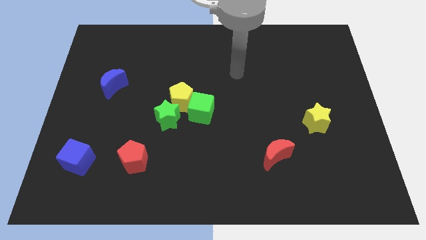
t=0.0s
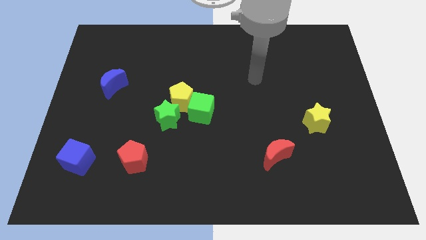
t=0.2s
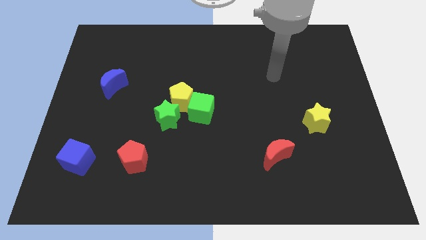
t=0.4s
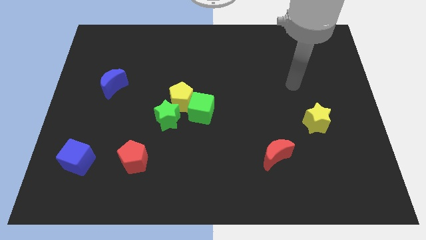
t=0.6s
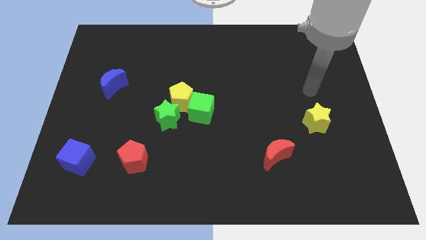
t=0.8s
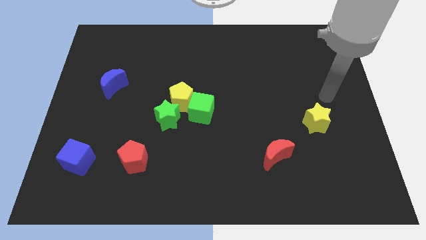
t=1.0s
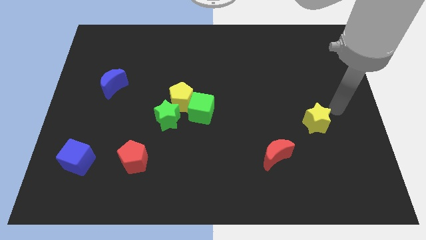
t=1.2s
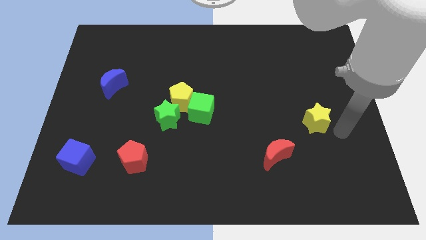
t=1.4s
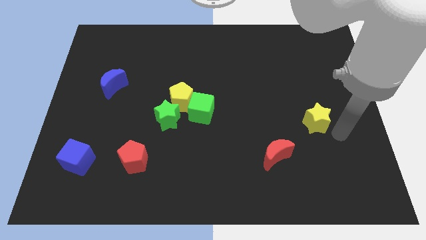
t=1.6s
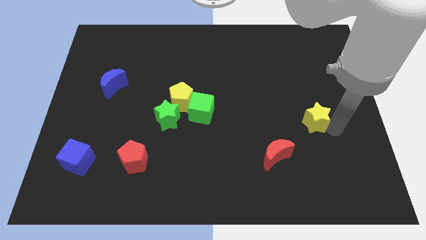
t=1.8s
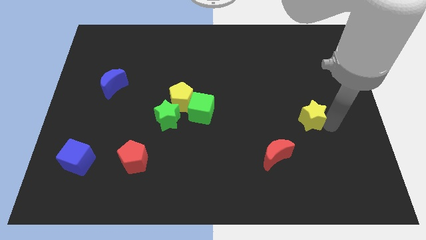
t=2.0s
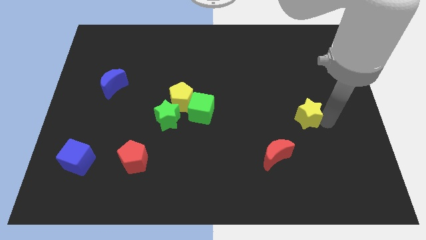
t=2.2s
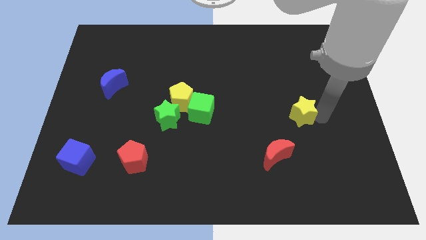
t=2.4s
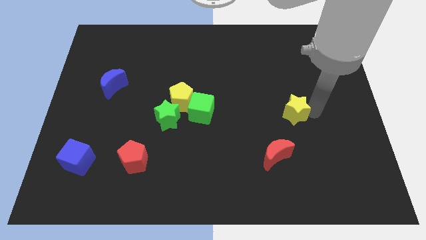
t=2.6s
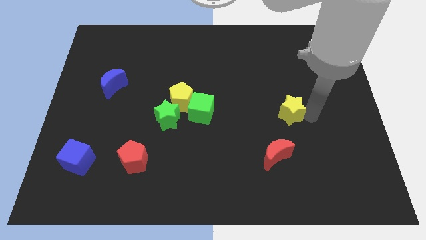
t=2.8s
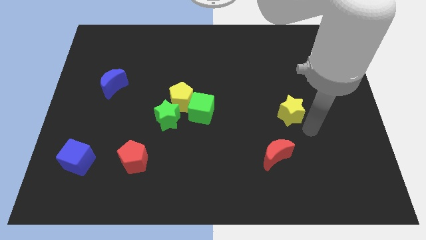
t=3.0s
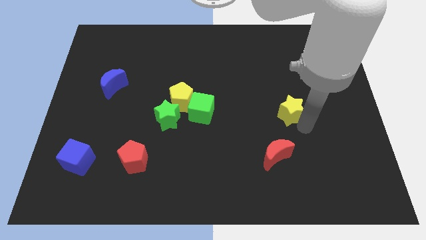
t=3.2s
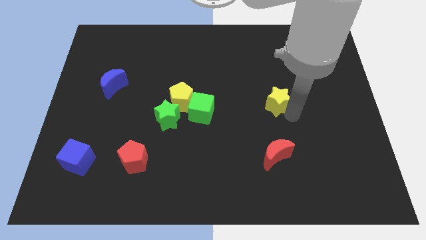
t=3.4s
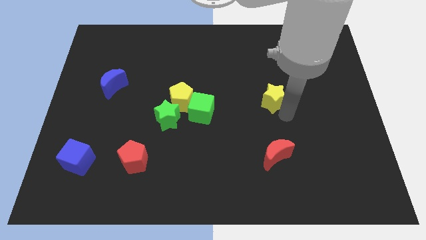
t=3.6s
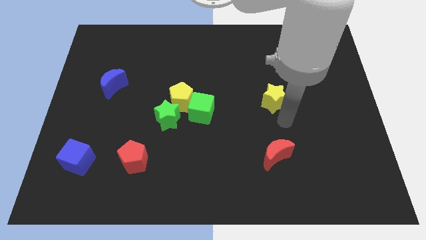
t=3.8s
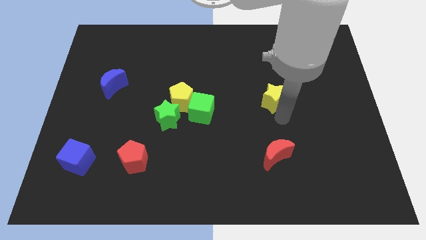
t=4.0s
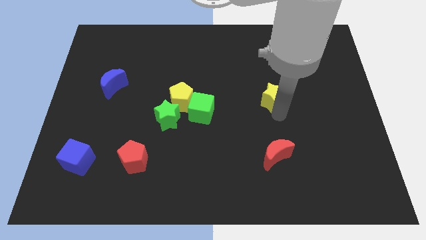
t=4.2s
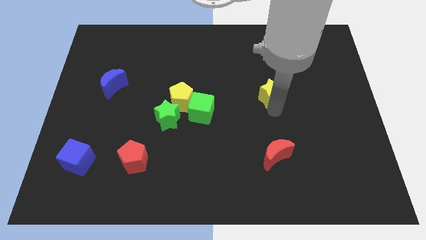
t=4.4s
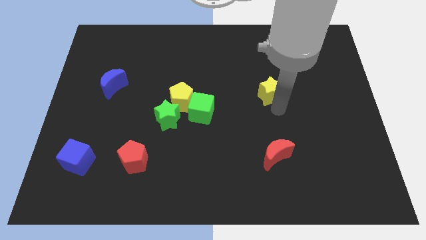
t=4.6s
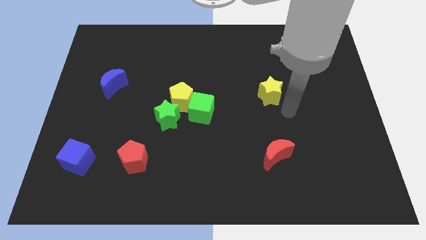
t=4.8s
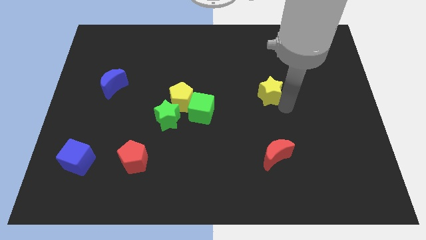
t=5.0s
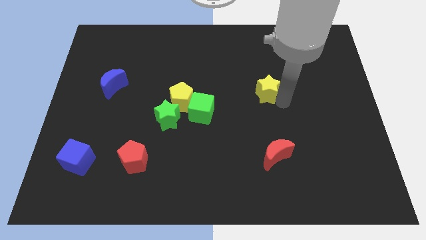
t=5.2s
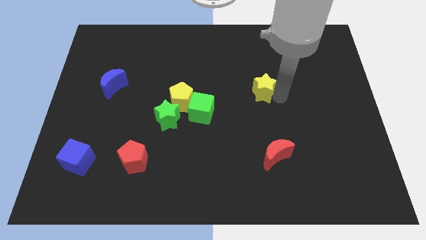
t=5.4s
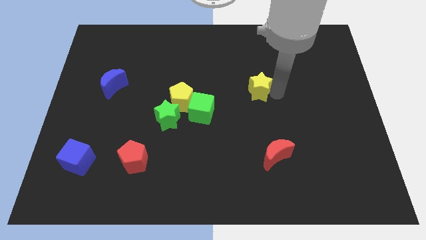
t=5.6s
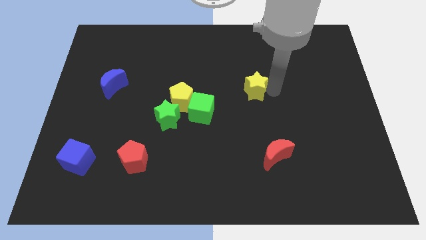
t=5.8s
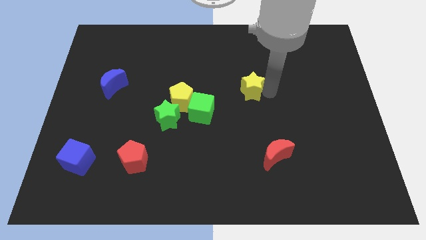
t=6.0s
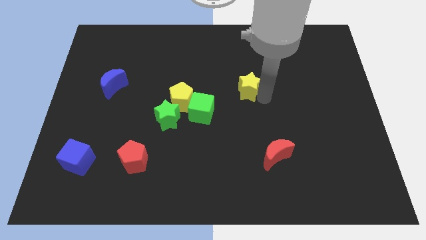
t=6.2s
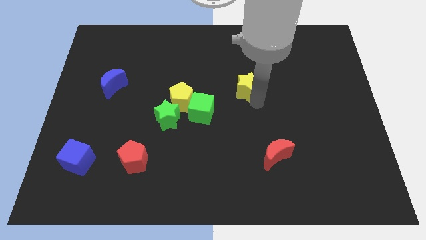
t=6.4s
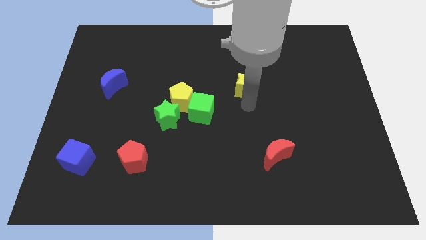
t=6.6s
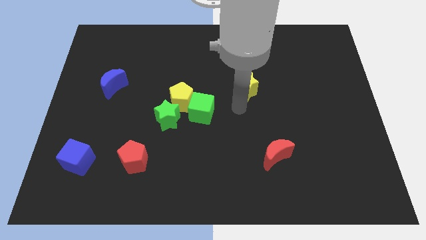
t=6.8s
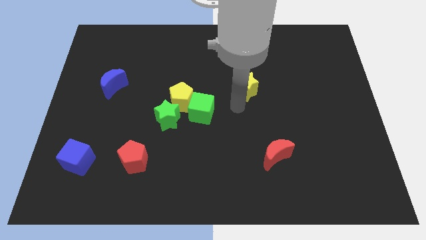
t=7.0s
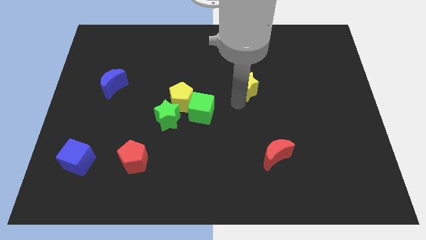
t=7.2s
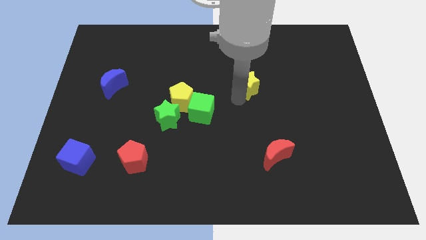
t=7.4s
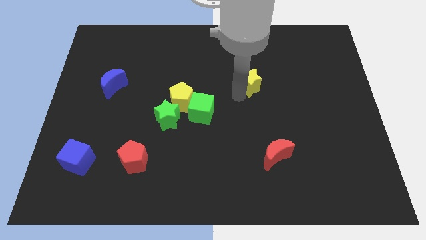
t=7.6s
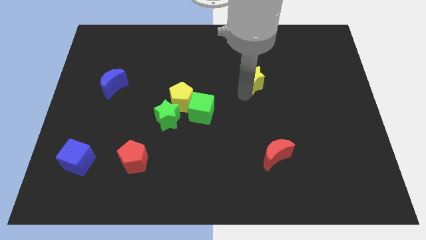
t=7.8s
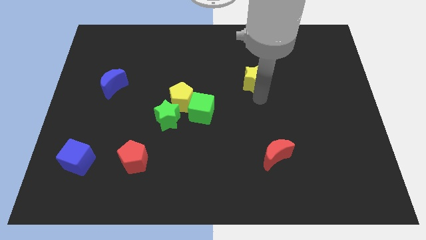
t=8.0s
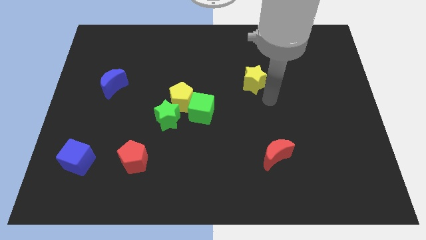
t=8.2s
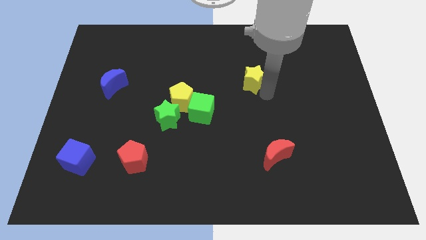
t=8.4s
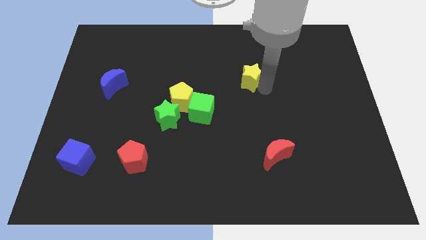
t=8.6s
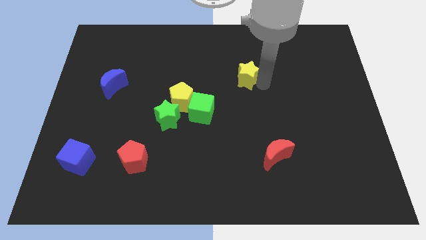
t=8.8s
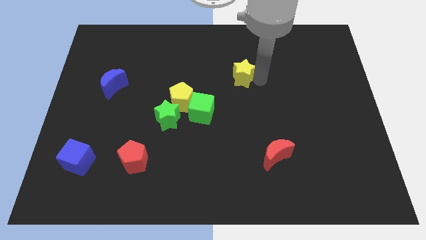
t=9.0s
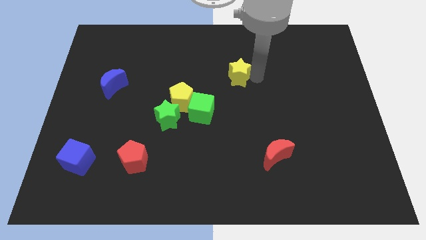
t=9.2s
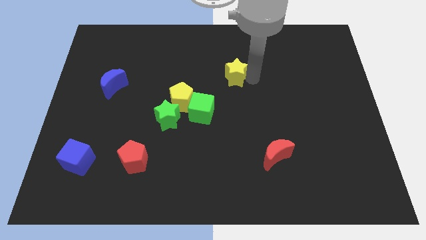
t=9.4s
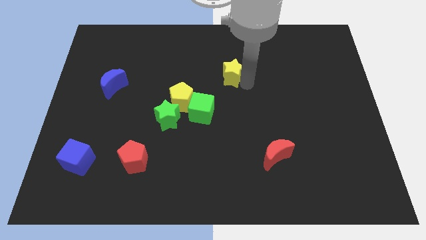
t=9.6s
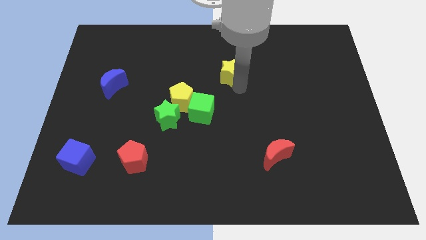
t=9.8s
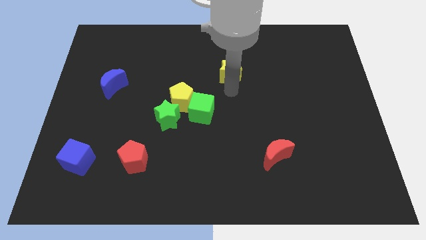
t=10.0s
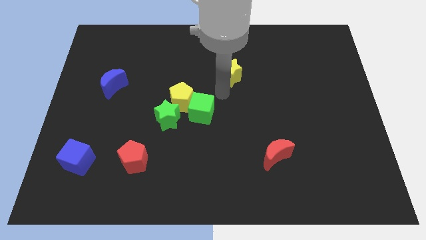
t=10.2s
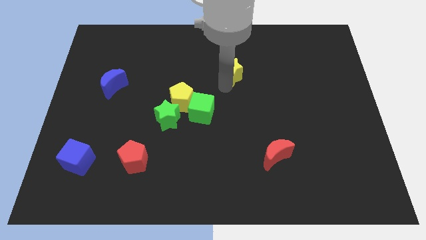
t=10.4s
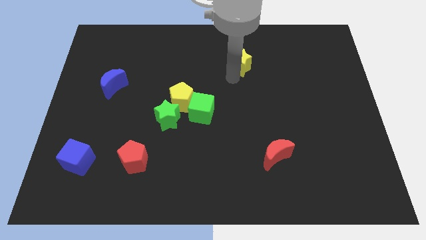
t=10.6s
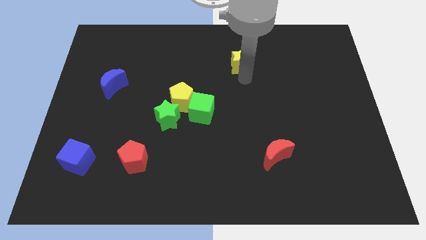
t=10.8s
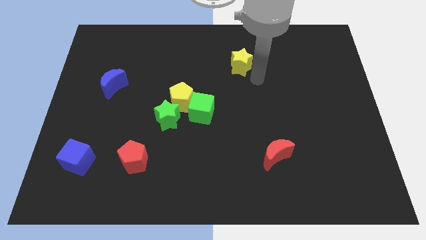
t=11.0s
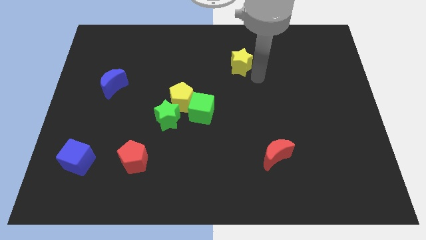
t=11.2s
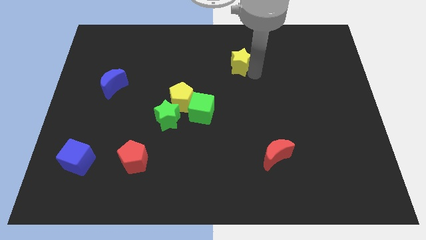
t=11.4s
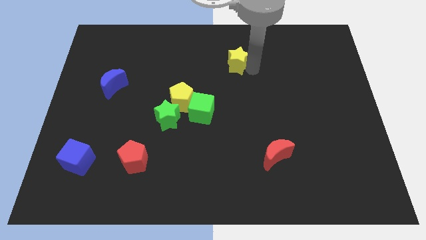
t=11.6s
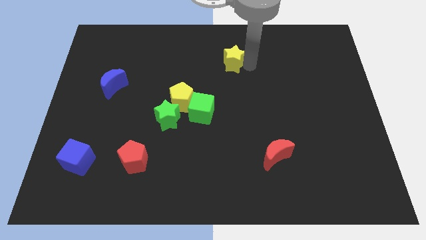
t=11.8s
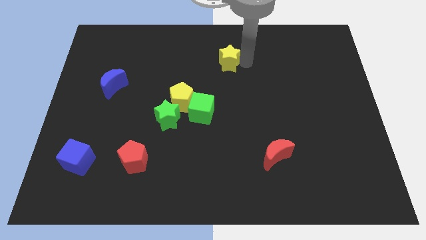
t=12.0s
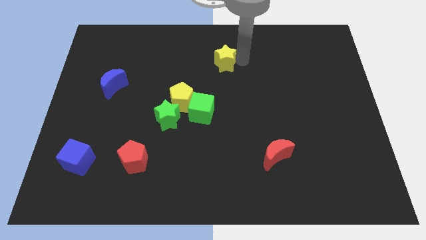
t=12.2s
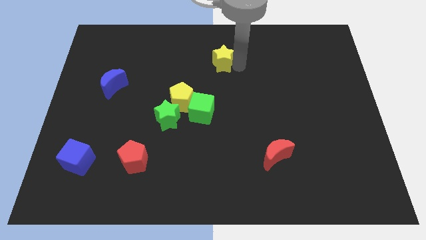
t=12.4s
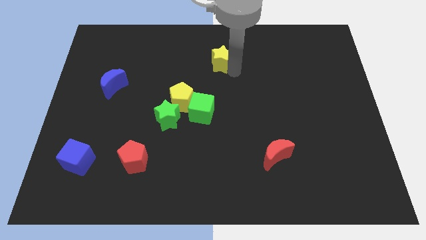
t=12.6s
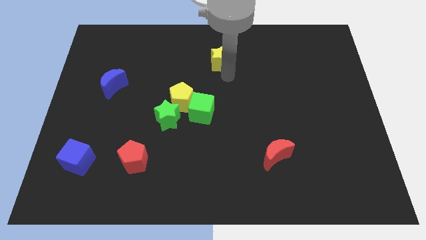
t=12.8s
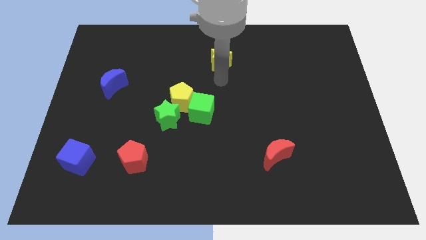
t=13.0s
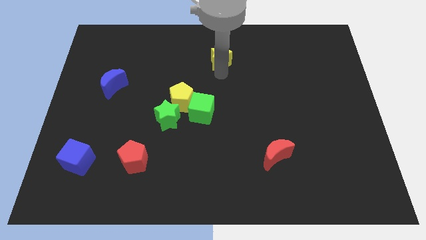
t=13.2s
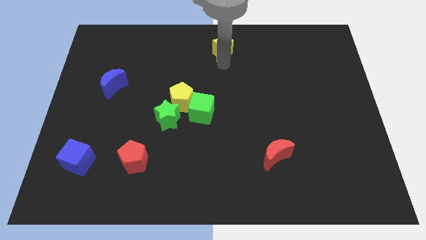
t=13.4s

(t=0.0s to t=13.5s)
move the yellow star to the towards your base
